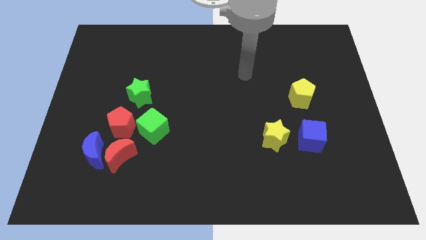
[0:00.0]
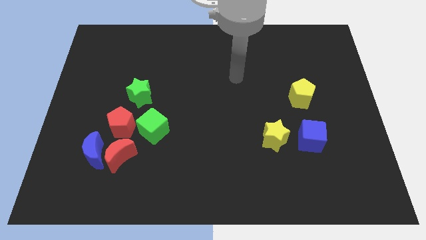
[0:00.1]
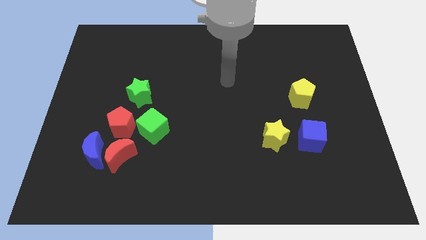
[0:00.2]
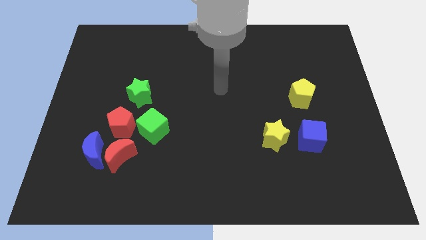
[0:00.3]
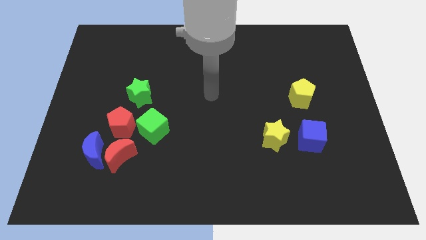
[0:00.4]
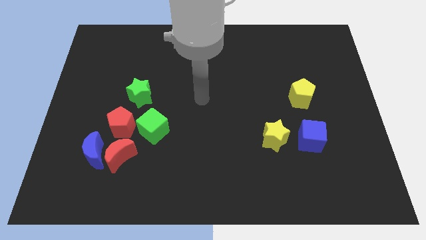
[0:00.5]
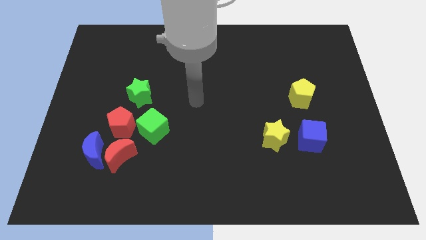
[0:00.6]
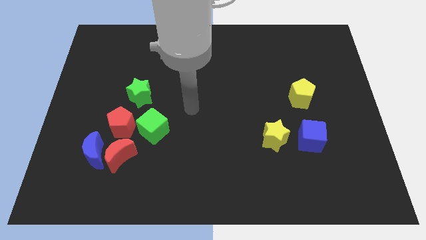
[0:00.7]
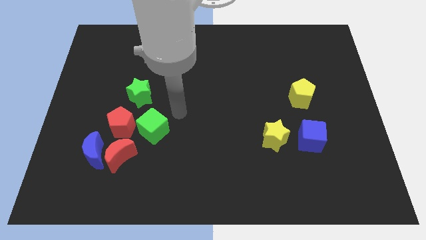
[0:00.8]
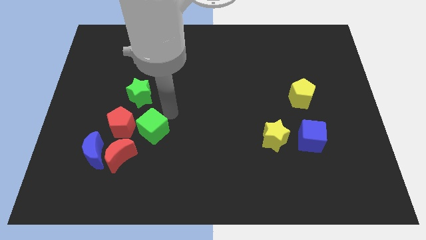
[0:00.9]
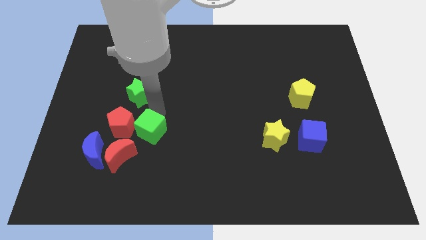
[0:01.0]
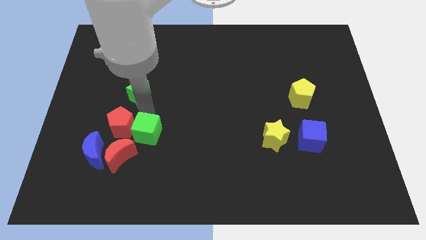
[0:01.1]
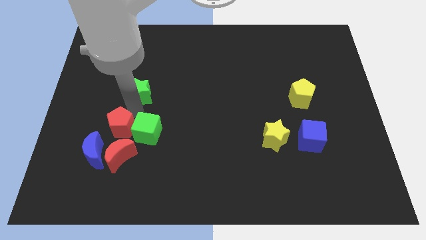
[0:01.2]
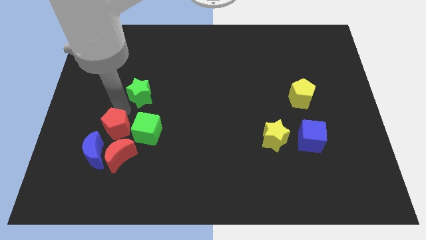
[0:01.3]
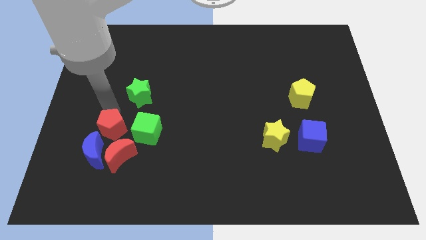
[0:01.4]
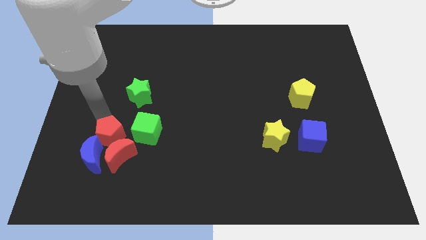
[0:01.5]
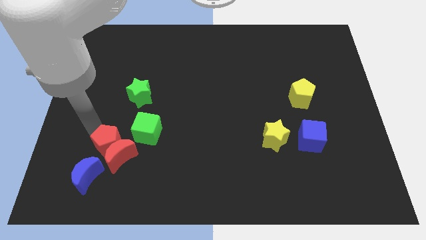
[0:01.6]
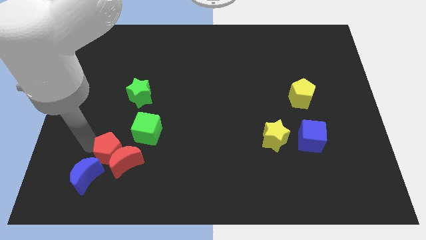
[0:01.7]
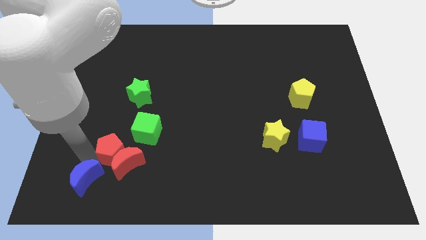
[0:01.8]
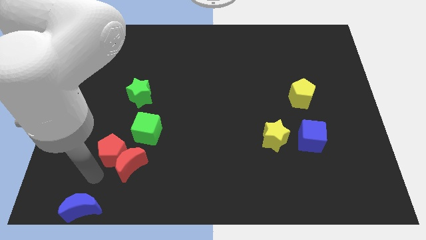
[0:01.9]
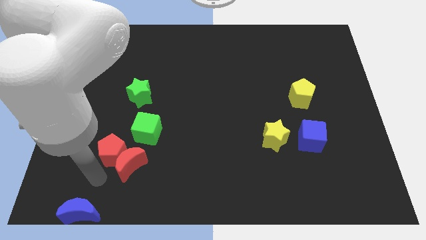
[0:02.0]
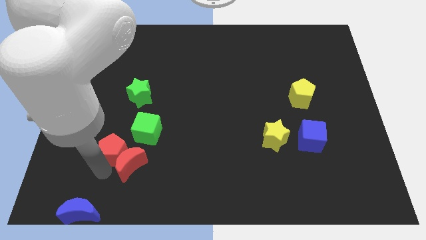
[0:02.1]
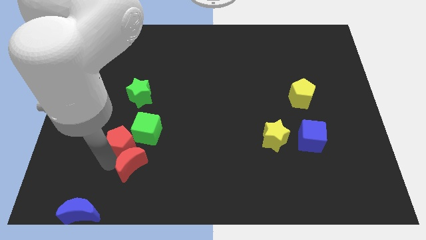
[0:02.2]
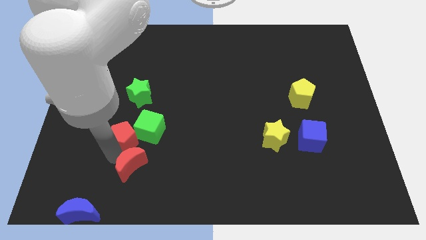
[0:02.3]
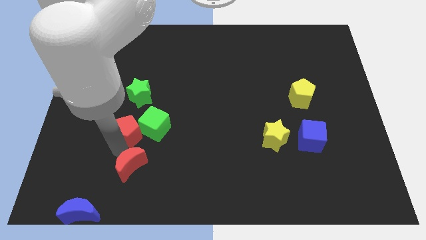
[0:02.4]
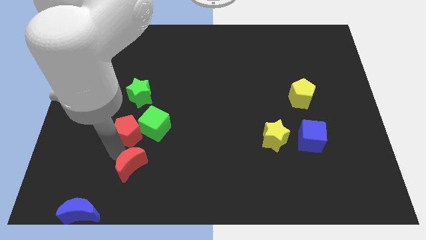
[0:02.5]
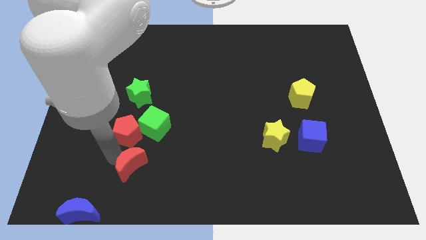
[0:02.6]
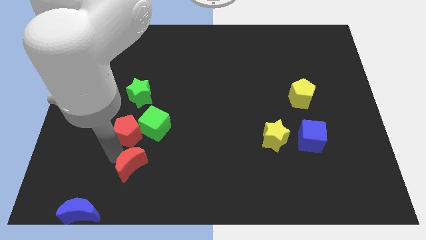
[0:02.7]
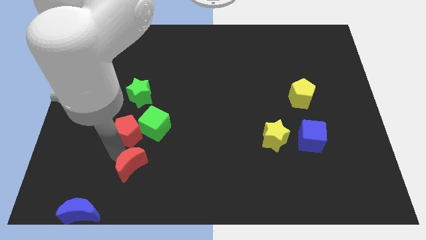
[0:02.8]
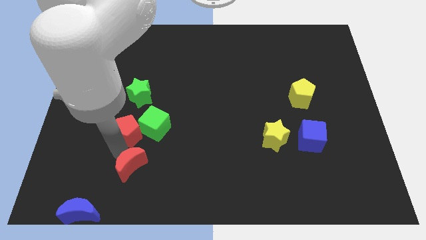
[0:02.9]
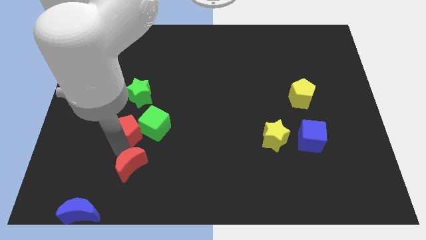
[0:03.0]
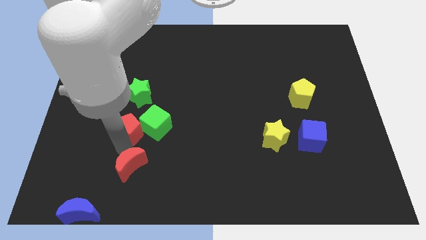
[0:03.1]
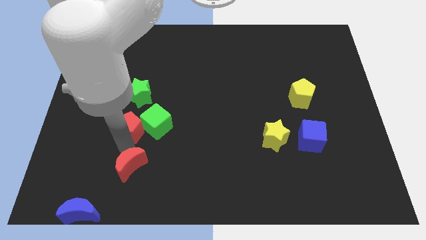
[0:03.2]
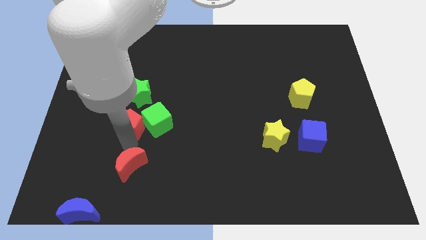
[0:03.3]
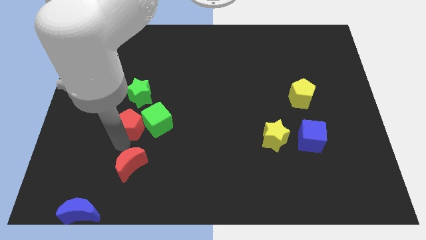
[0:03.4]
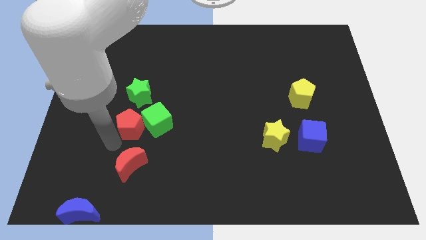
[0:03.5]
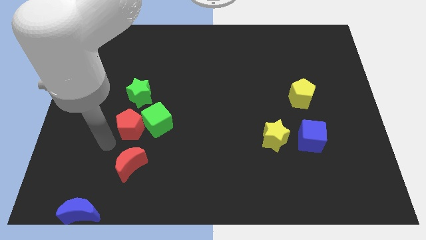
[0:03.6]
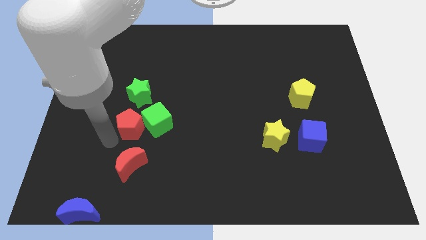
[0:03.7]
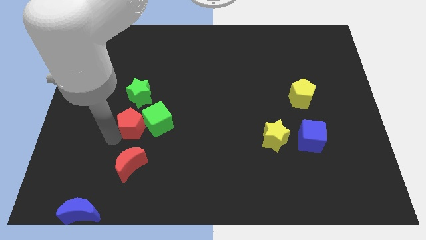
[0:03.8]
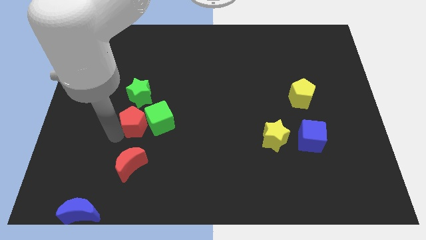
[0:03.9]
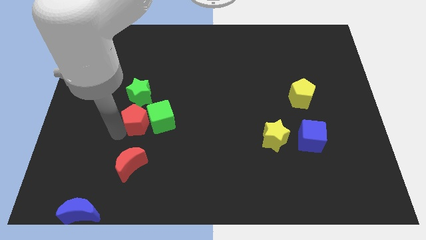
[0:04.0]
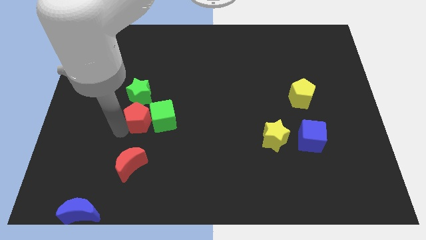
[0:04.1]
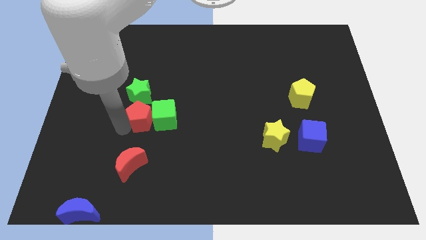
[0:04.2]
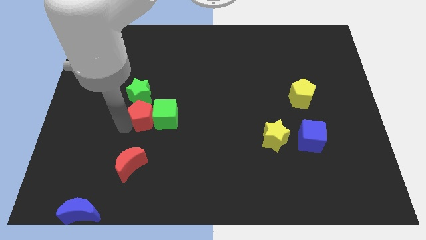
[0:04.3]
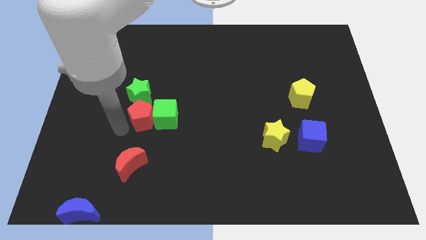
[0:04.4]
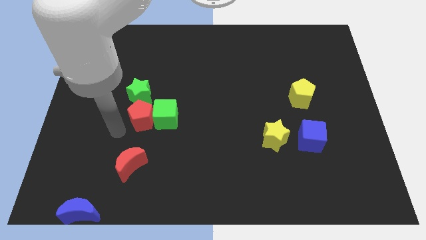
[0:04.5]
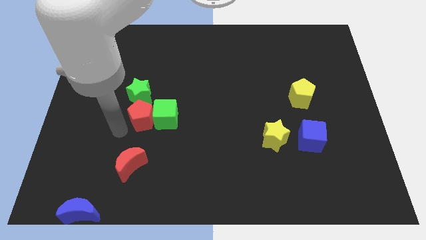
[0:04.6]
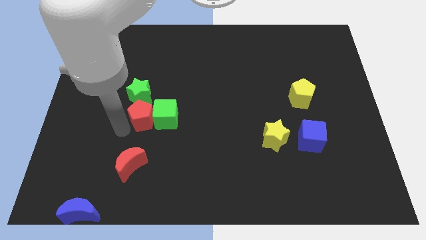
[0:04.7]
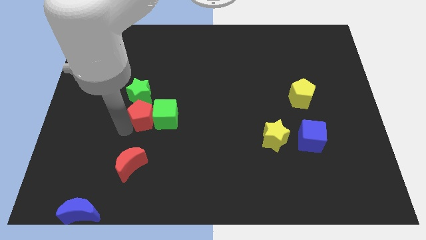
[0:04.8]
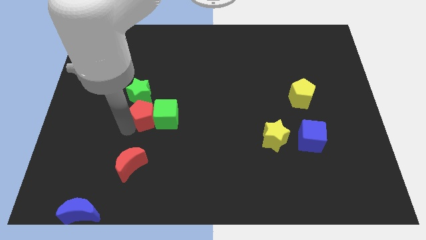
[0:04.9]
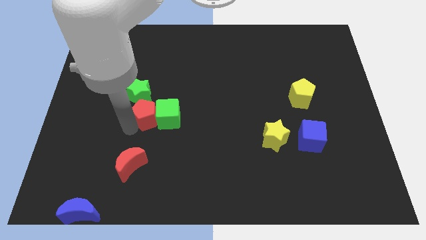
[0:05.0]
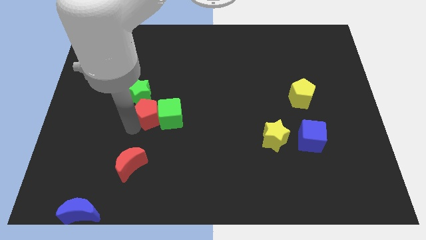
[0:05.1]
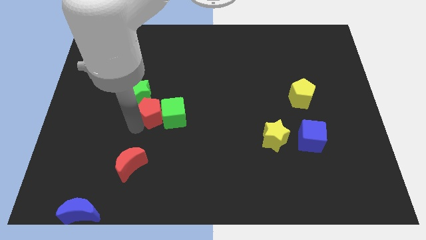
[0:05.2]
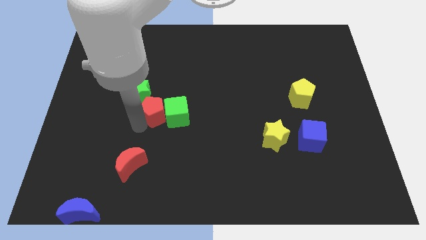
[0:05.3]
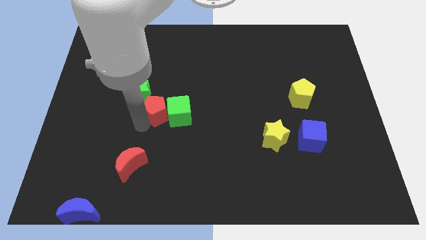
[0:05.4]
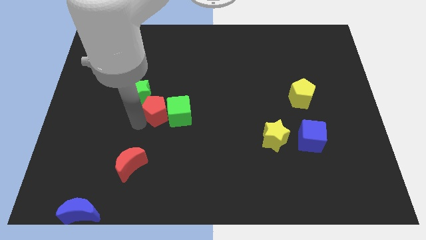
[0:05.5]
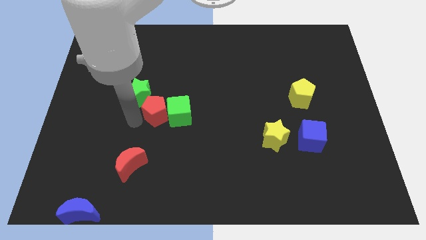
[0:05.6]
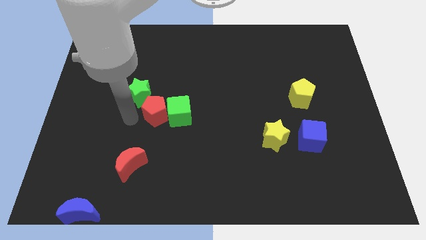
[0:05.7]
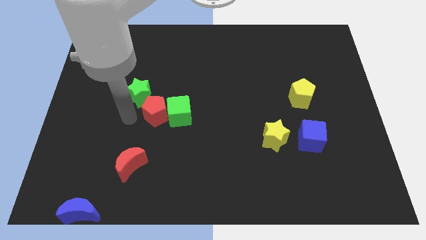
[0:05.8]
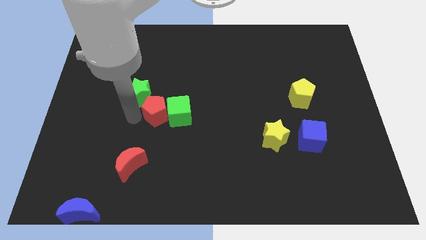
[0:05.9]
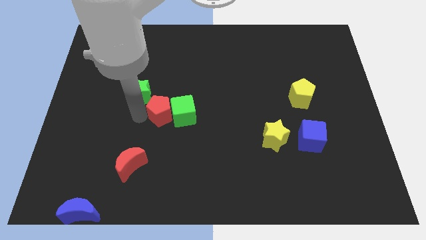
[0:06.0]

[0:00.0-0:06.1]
slide the red pentagon to the center of the board
